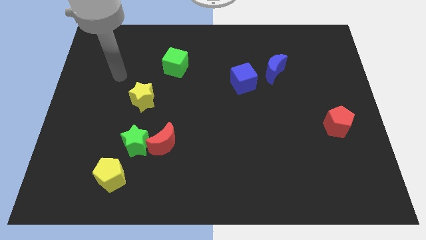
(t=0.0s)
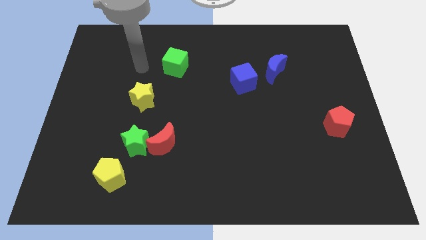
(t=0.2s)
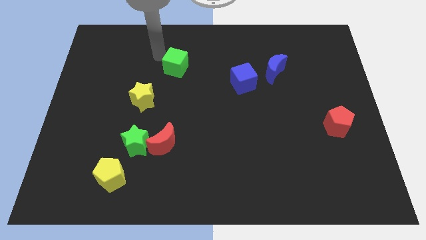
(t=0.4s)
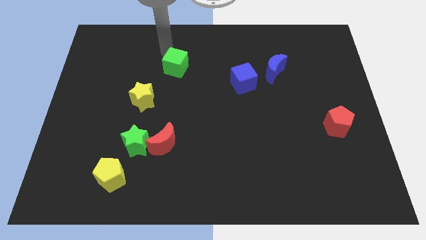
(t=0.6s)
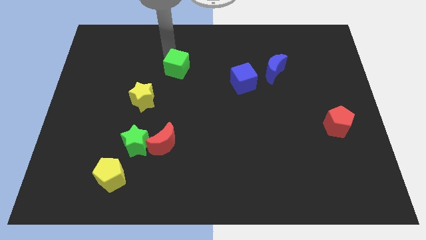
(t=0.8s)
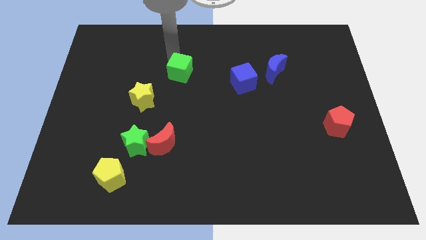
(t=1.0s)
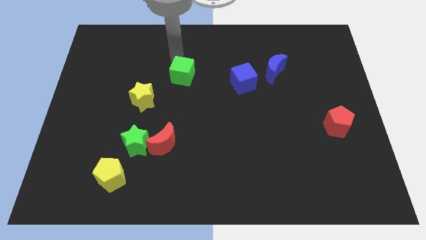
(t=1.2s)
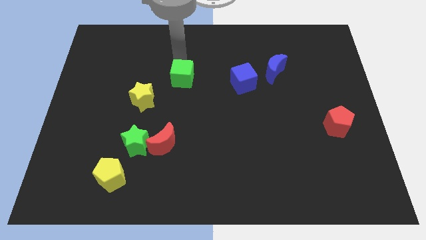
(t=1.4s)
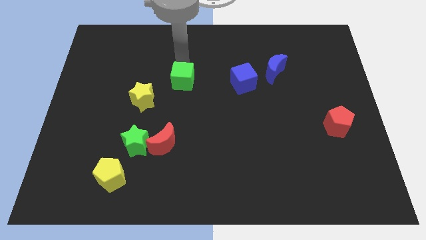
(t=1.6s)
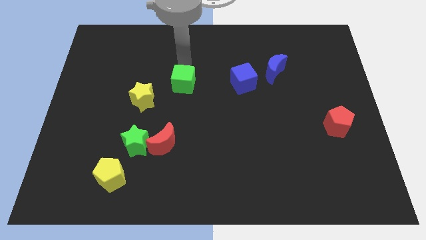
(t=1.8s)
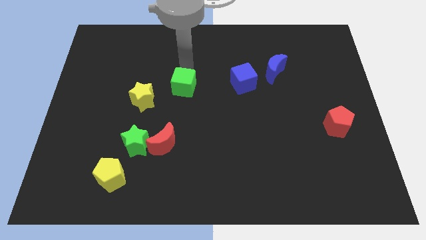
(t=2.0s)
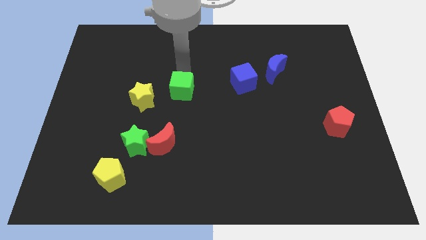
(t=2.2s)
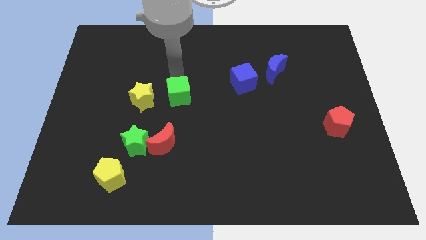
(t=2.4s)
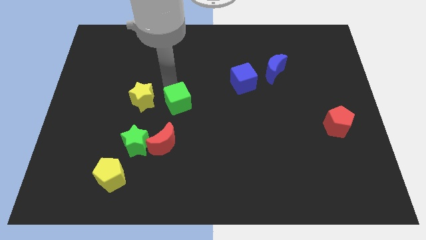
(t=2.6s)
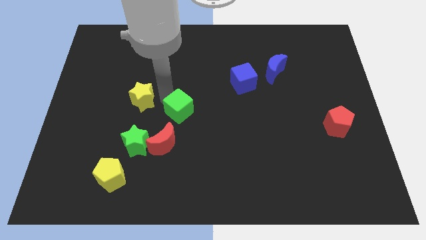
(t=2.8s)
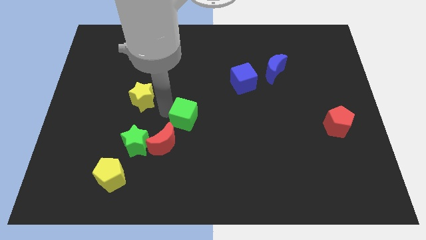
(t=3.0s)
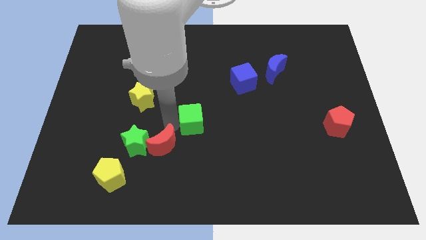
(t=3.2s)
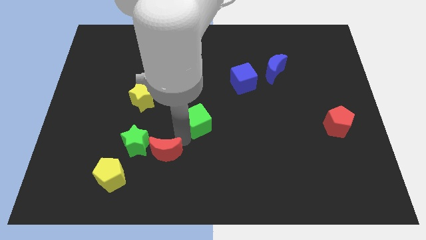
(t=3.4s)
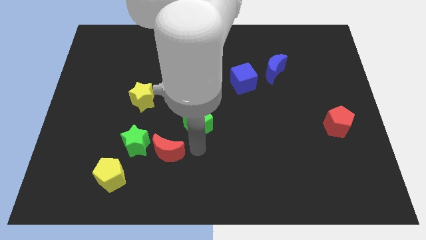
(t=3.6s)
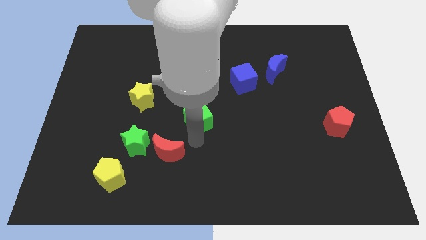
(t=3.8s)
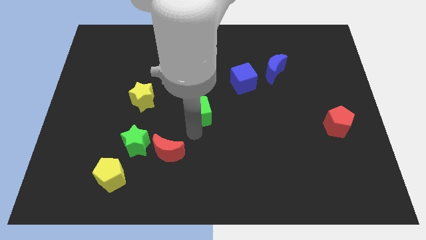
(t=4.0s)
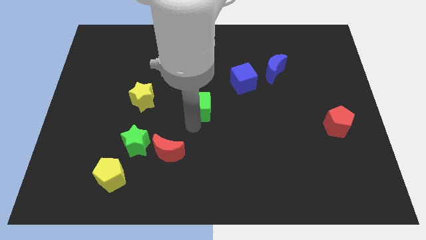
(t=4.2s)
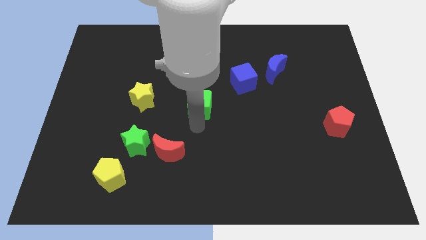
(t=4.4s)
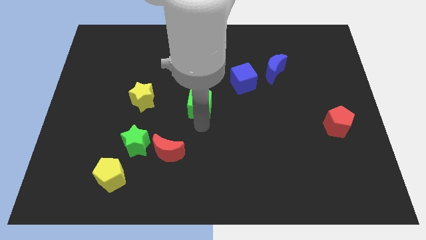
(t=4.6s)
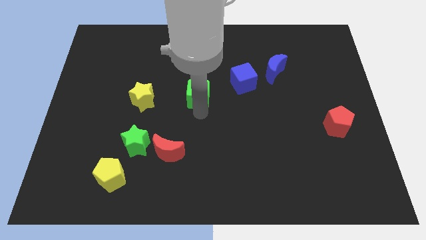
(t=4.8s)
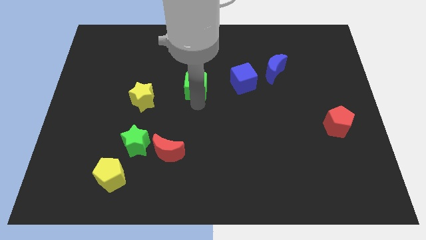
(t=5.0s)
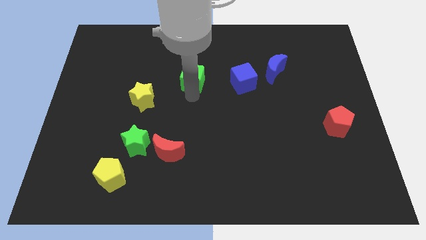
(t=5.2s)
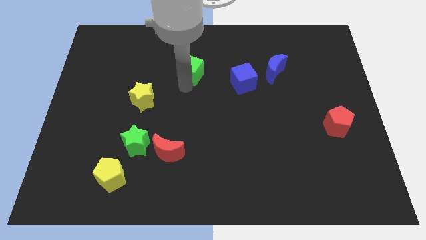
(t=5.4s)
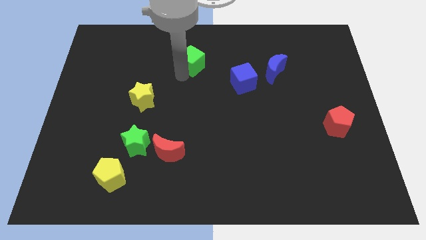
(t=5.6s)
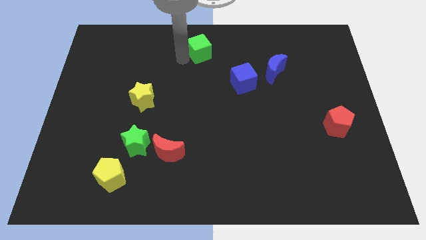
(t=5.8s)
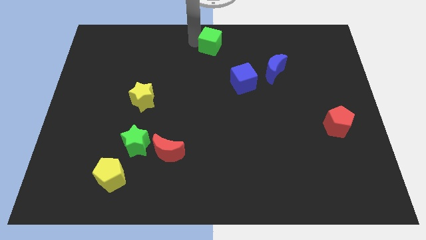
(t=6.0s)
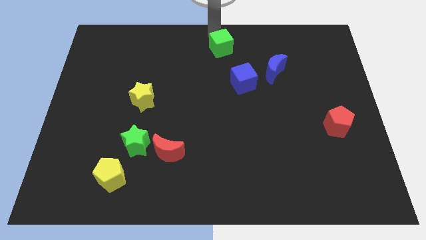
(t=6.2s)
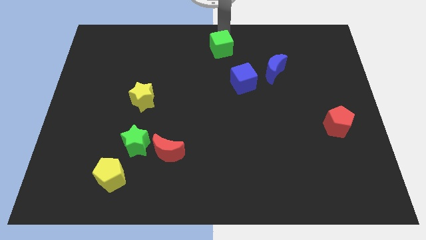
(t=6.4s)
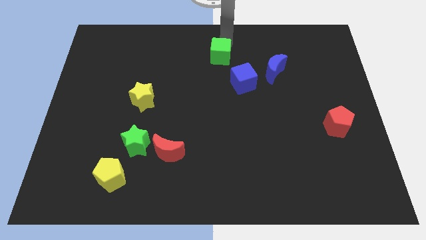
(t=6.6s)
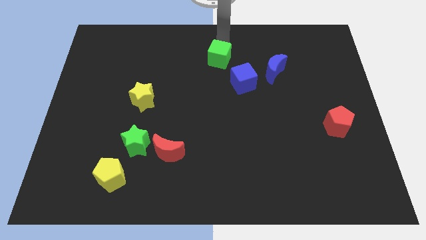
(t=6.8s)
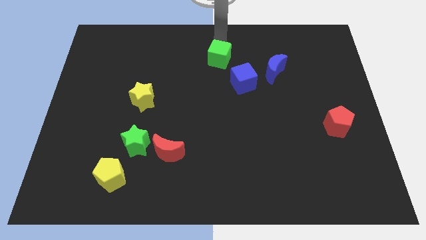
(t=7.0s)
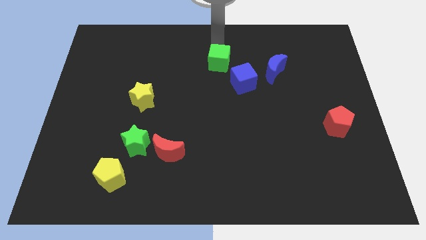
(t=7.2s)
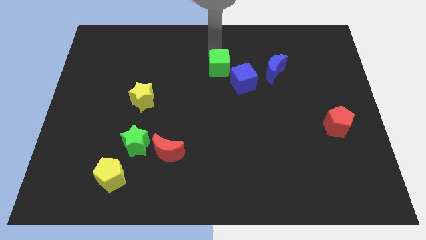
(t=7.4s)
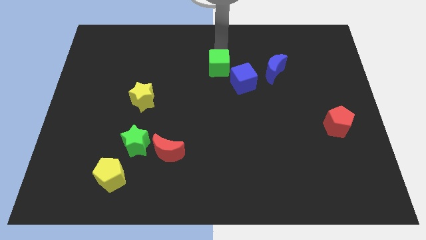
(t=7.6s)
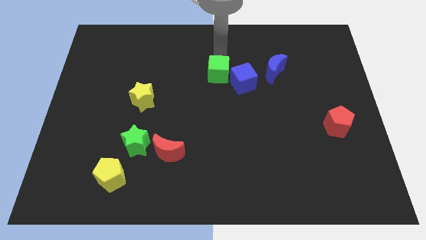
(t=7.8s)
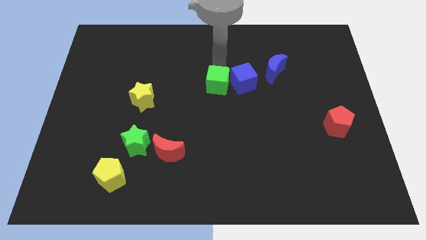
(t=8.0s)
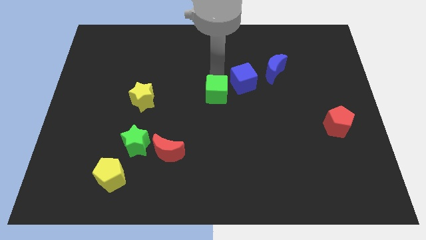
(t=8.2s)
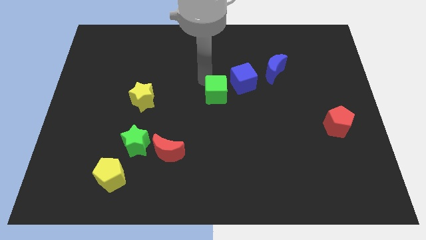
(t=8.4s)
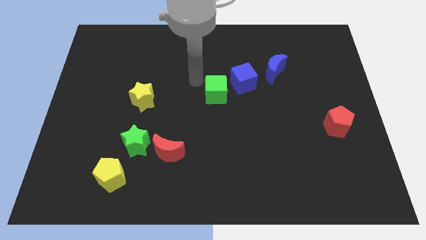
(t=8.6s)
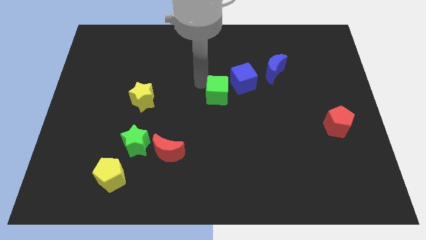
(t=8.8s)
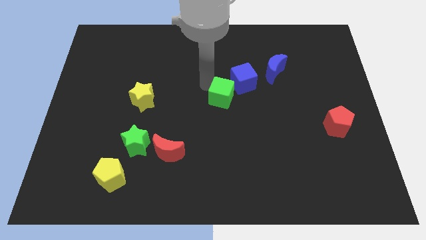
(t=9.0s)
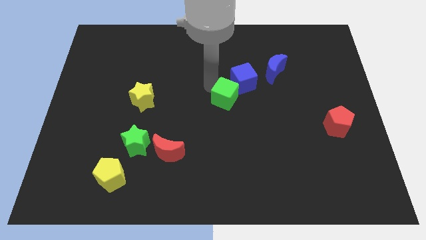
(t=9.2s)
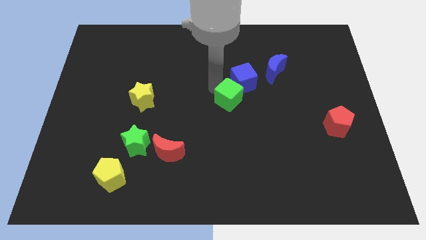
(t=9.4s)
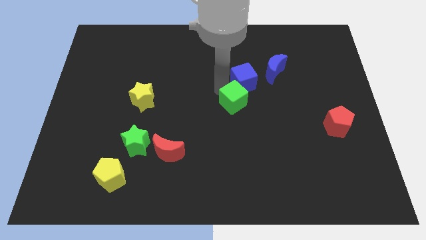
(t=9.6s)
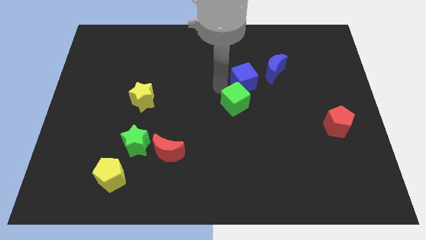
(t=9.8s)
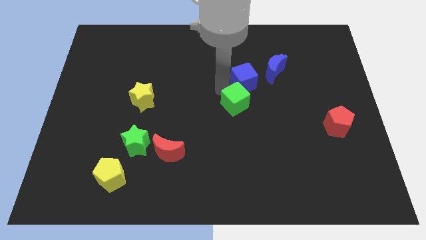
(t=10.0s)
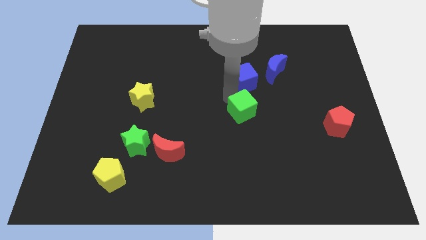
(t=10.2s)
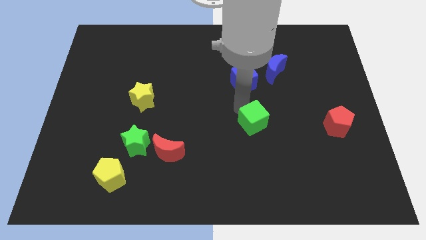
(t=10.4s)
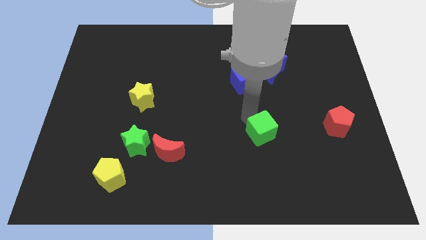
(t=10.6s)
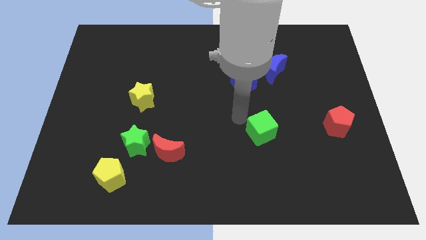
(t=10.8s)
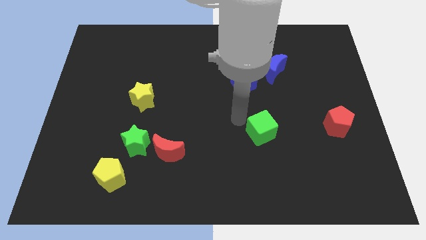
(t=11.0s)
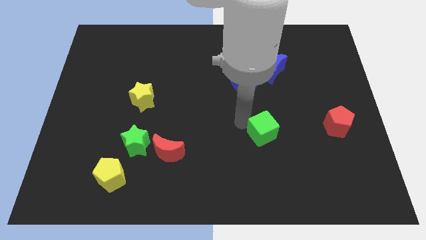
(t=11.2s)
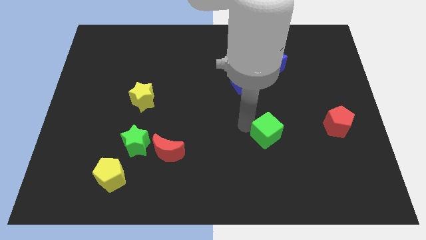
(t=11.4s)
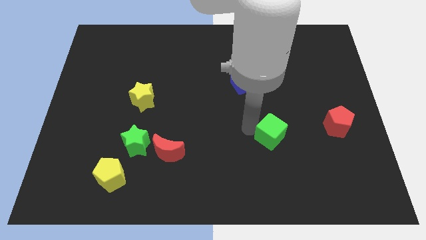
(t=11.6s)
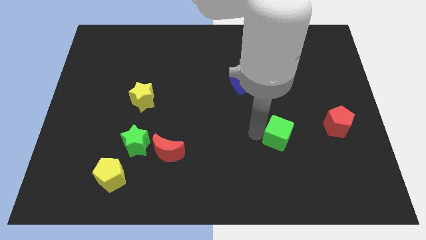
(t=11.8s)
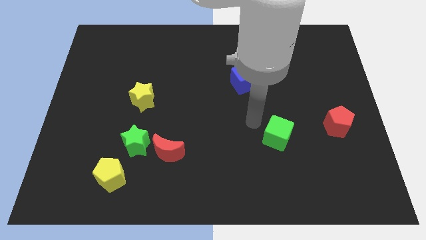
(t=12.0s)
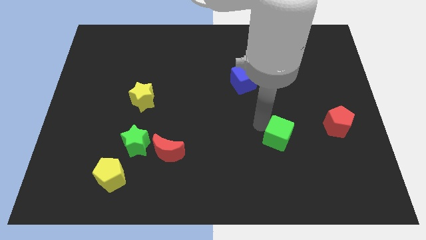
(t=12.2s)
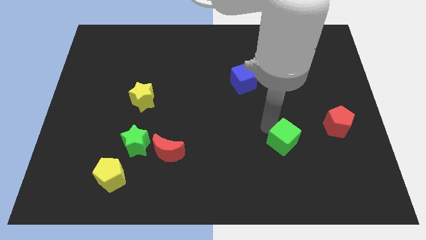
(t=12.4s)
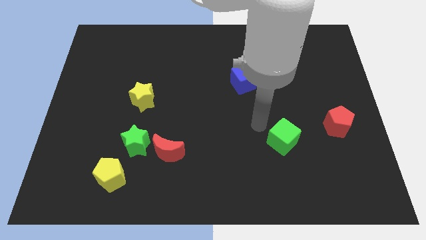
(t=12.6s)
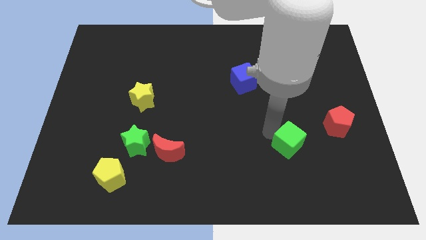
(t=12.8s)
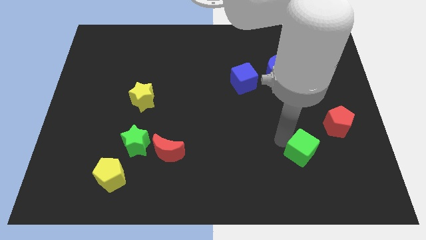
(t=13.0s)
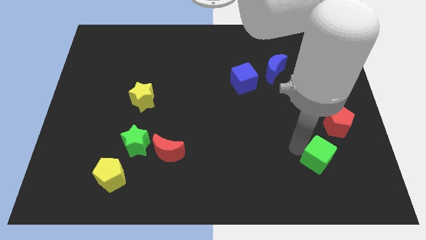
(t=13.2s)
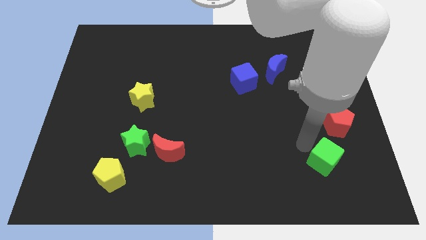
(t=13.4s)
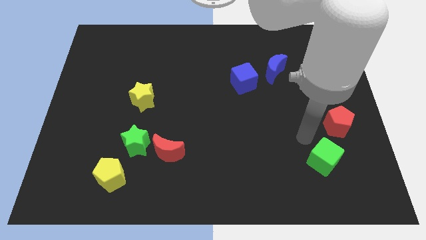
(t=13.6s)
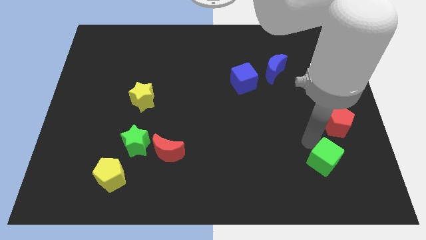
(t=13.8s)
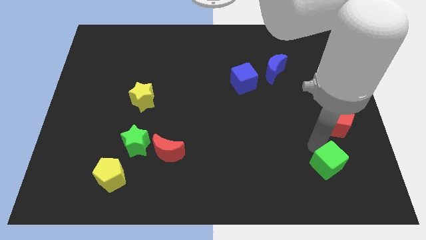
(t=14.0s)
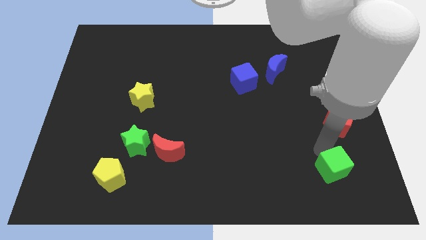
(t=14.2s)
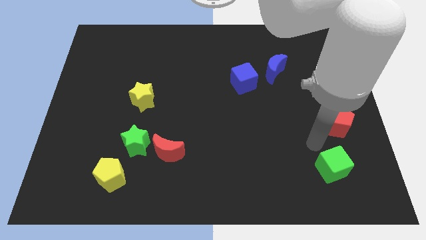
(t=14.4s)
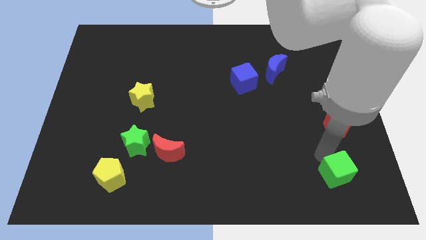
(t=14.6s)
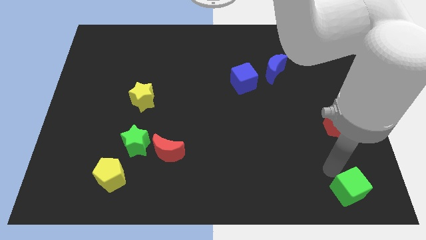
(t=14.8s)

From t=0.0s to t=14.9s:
push the green cube to the bottom right
